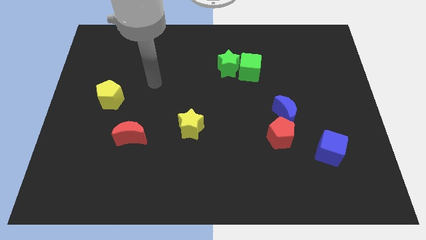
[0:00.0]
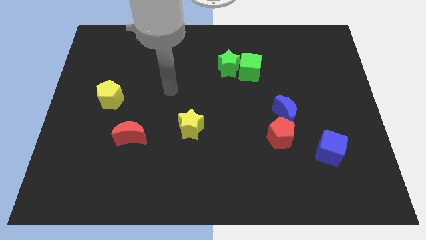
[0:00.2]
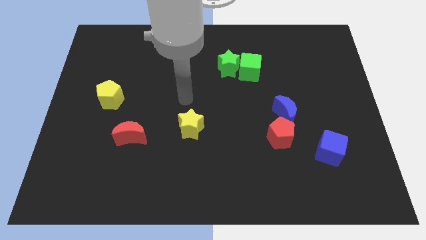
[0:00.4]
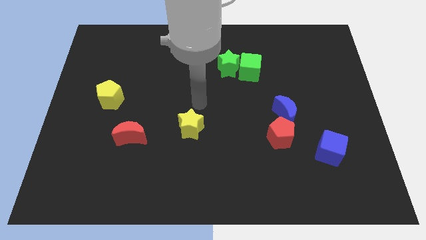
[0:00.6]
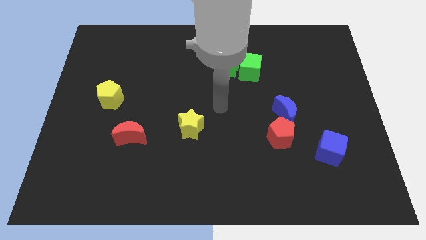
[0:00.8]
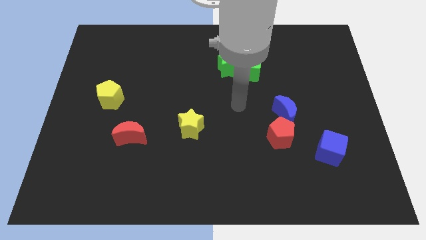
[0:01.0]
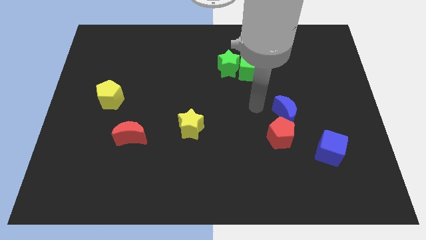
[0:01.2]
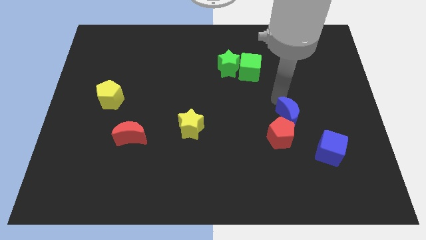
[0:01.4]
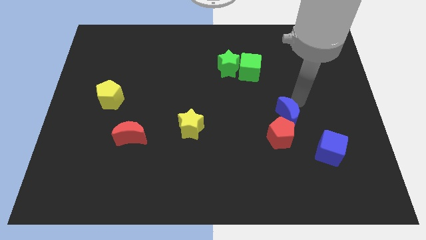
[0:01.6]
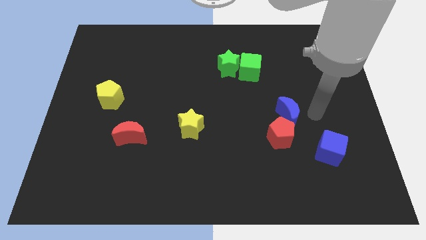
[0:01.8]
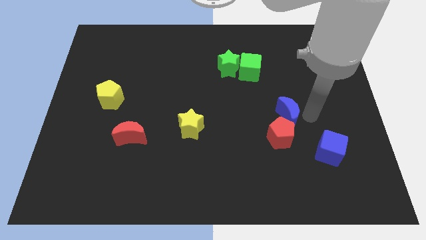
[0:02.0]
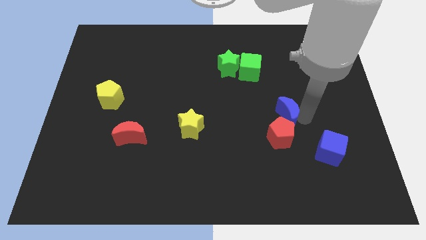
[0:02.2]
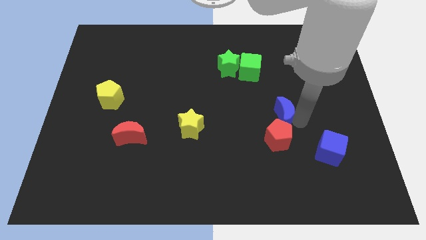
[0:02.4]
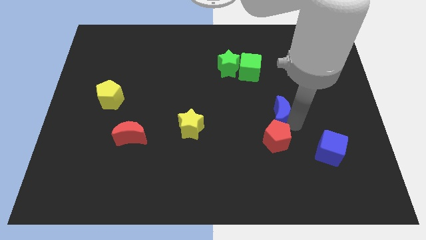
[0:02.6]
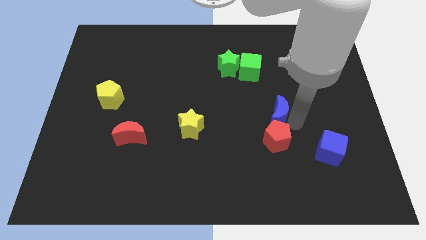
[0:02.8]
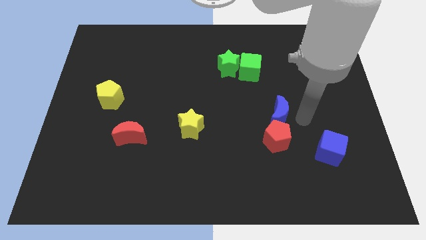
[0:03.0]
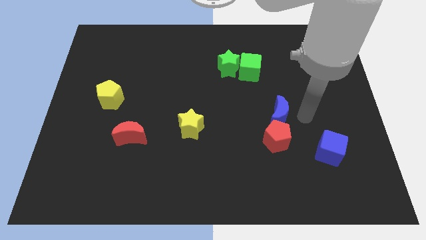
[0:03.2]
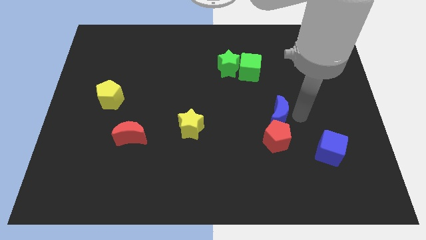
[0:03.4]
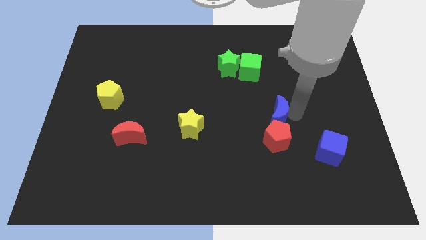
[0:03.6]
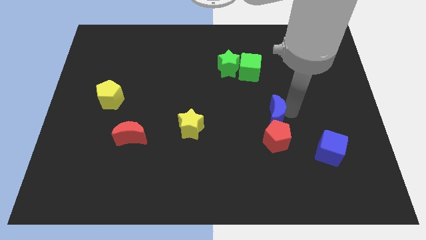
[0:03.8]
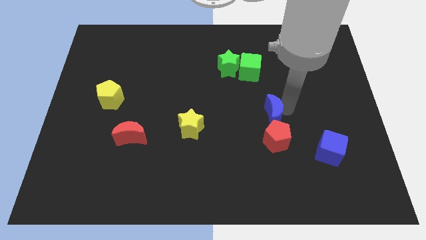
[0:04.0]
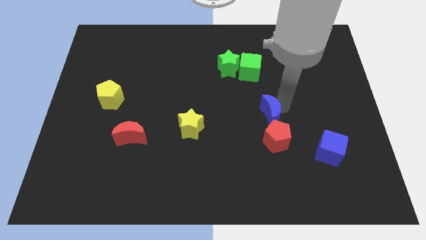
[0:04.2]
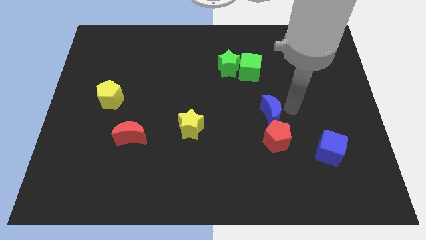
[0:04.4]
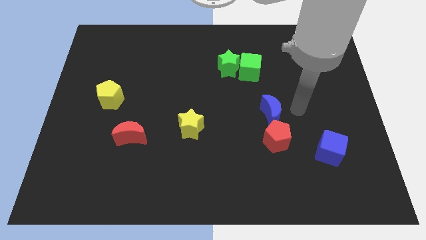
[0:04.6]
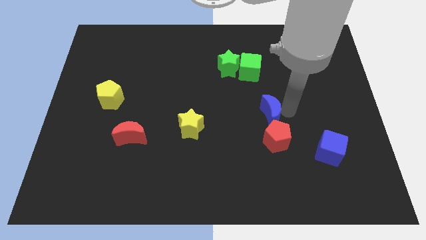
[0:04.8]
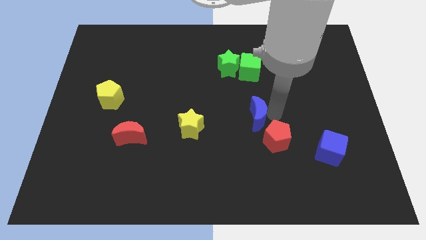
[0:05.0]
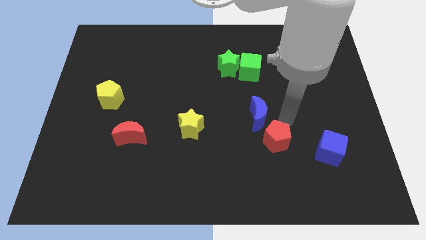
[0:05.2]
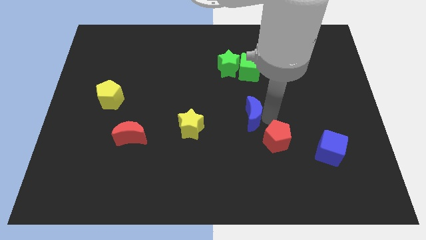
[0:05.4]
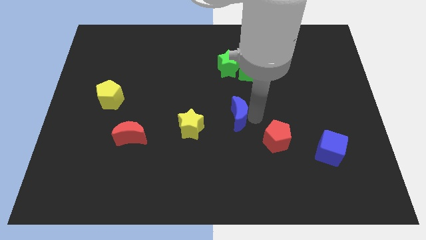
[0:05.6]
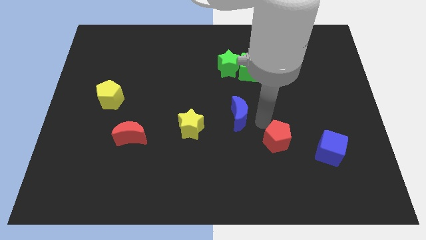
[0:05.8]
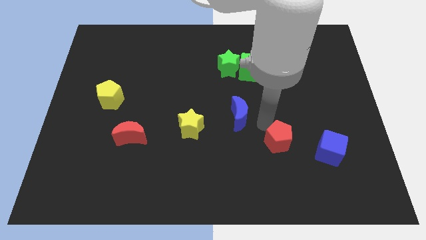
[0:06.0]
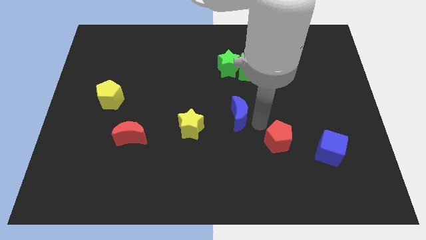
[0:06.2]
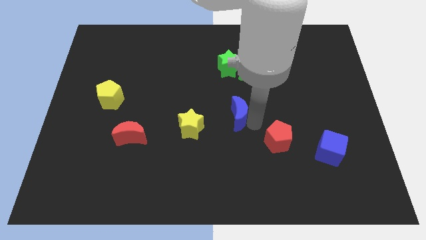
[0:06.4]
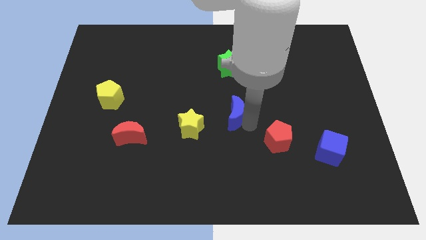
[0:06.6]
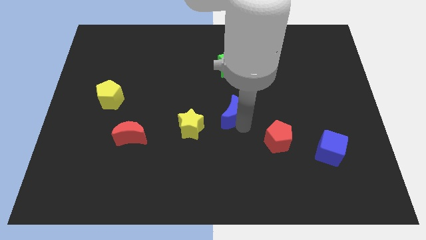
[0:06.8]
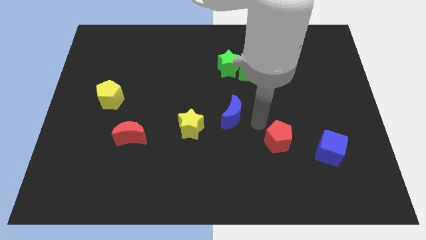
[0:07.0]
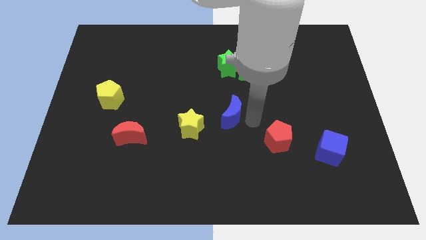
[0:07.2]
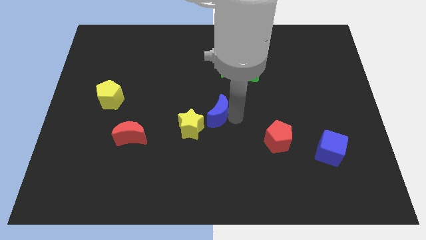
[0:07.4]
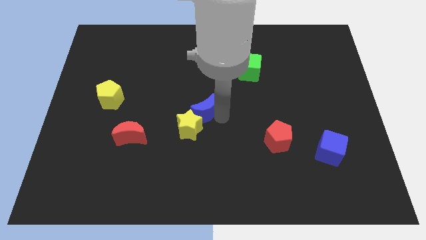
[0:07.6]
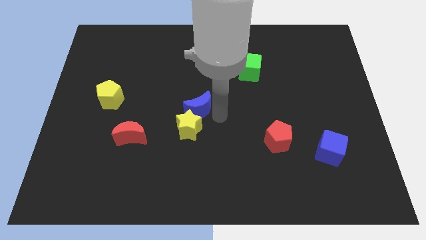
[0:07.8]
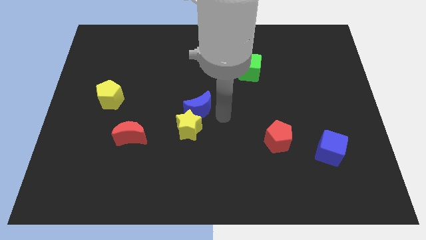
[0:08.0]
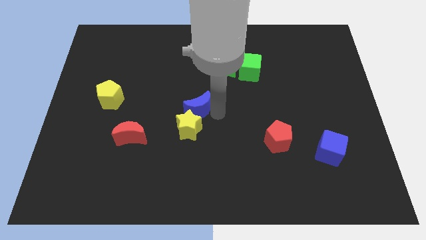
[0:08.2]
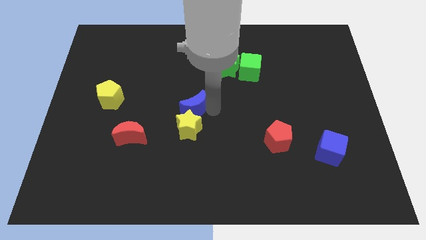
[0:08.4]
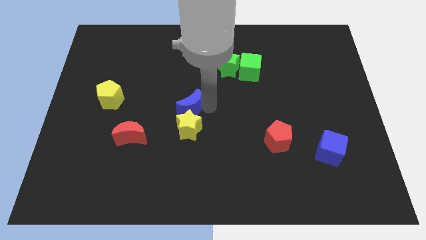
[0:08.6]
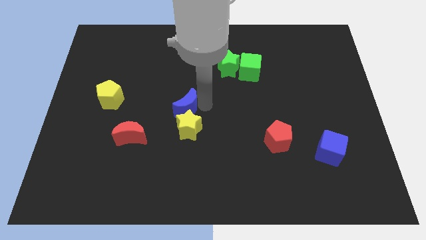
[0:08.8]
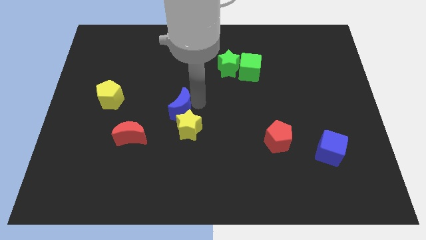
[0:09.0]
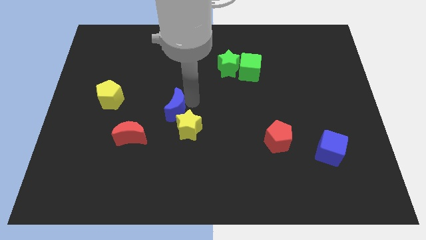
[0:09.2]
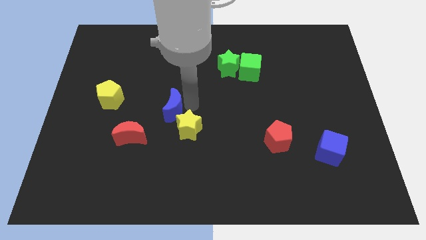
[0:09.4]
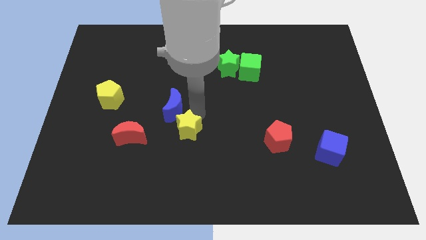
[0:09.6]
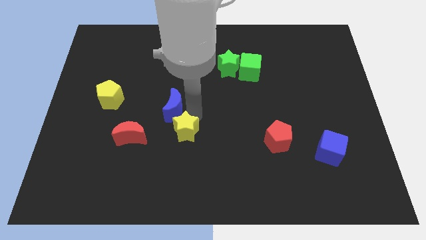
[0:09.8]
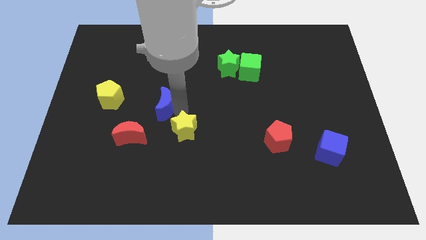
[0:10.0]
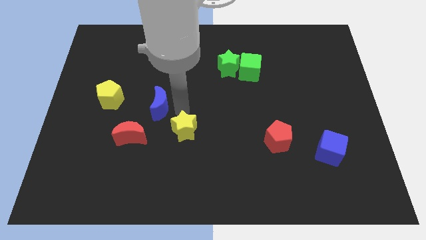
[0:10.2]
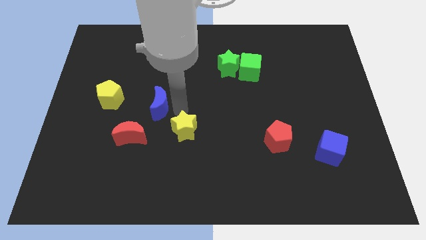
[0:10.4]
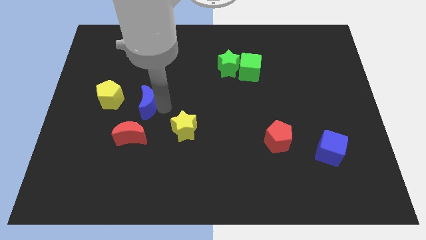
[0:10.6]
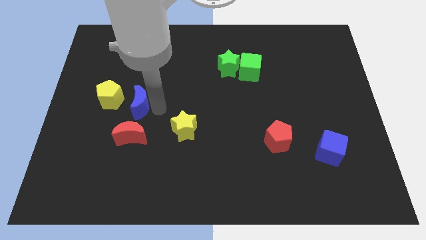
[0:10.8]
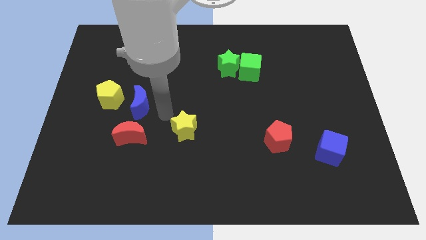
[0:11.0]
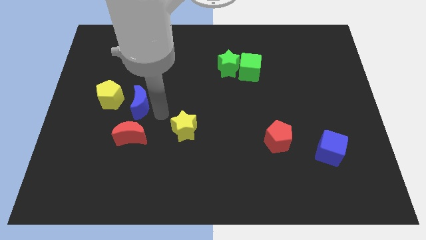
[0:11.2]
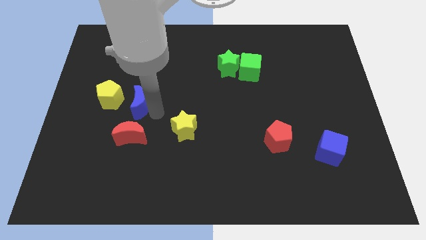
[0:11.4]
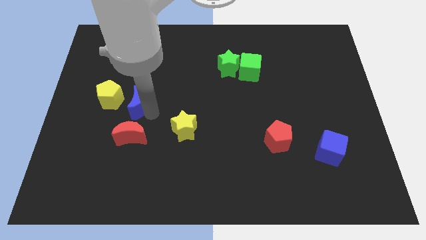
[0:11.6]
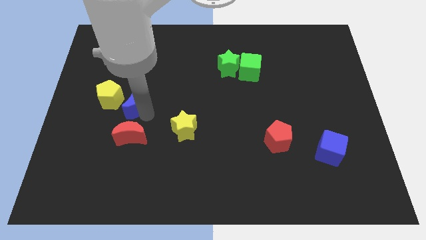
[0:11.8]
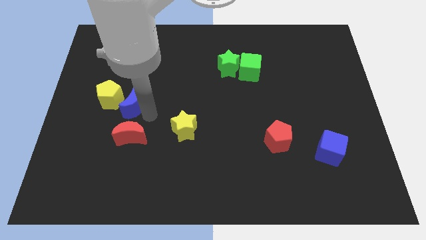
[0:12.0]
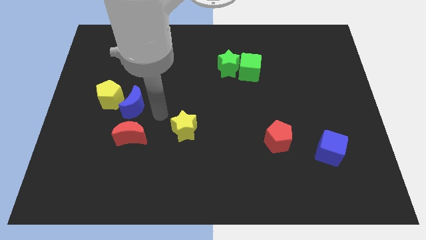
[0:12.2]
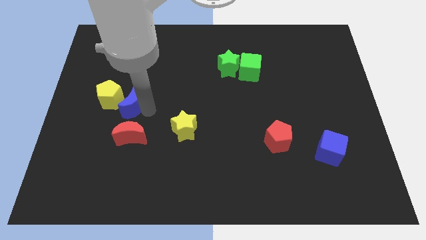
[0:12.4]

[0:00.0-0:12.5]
push the blue moon next to the yellow pentagon

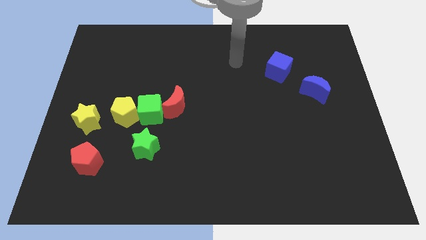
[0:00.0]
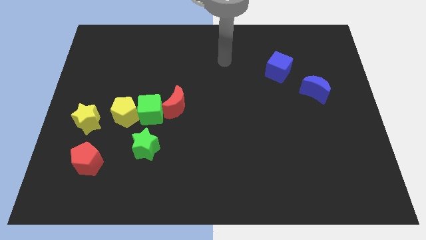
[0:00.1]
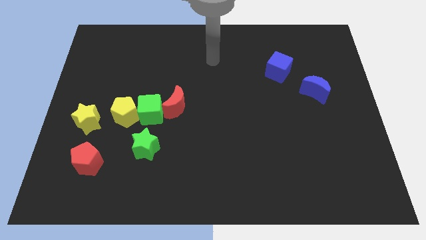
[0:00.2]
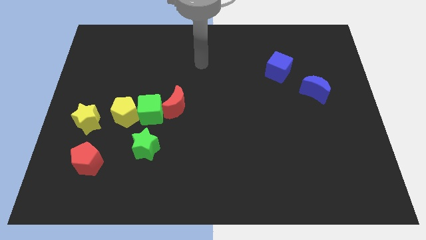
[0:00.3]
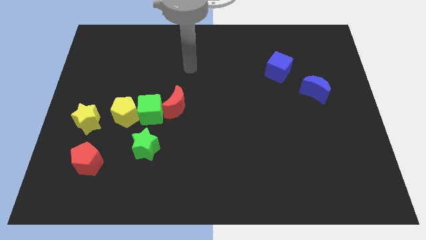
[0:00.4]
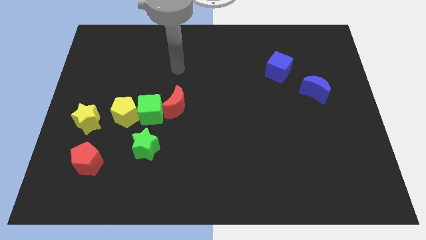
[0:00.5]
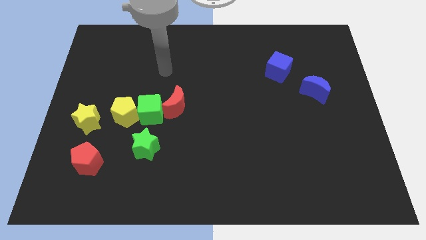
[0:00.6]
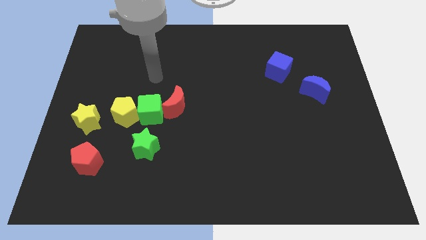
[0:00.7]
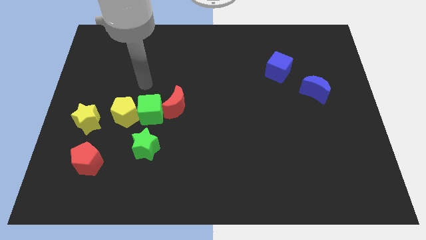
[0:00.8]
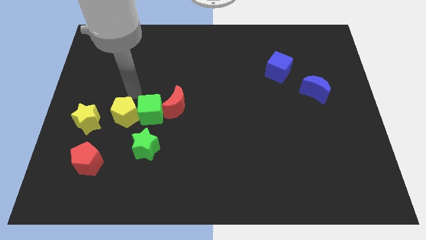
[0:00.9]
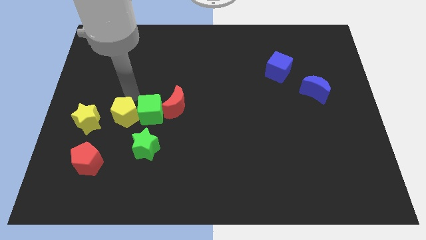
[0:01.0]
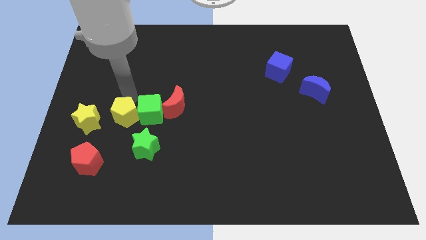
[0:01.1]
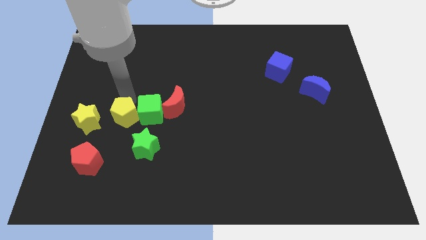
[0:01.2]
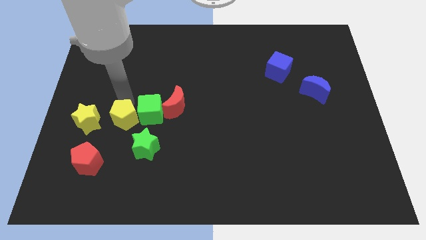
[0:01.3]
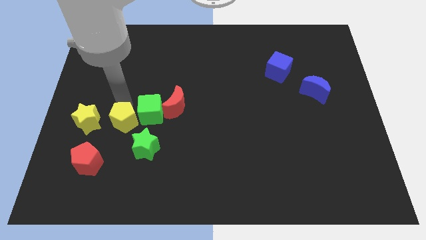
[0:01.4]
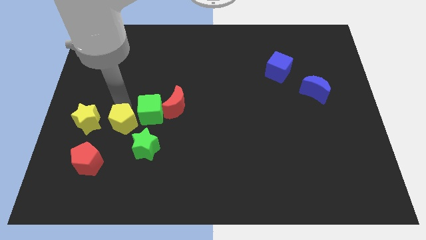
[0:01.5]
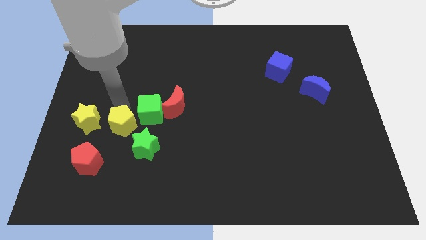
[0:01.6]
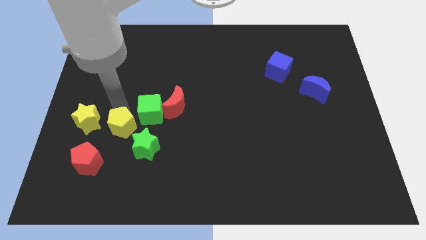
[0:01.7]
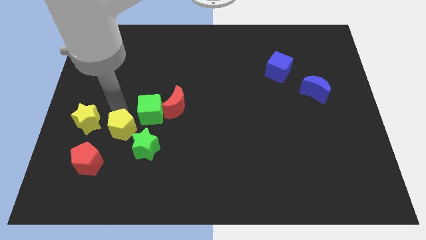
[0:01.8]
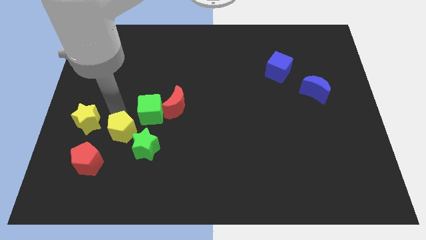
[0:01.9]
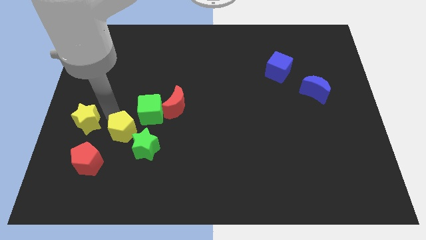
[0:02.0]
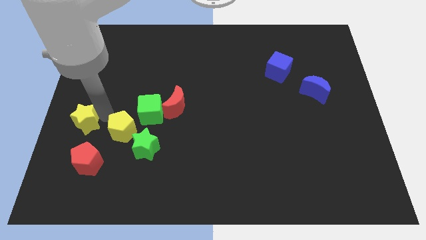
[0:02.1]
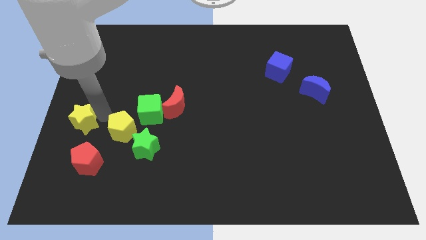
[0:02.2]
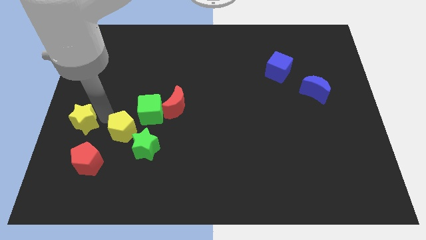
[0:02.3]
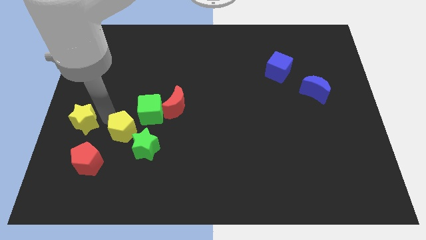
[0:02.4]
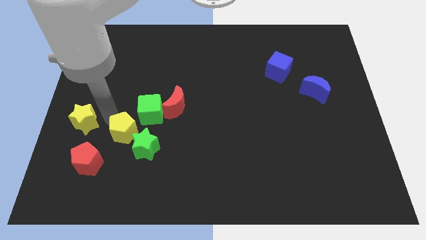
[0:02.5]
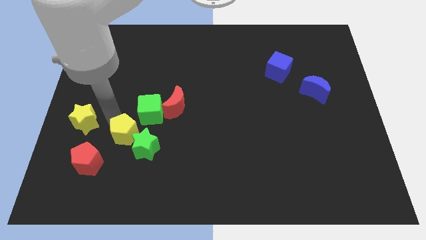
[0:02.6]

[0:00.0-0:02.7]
put the yellow pentagon to the green star
